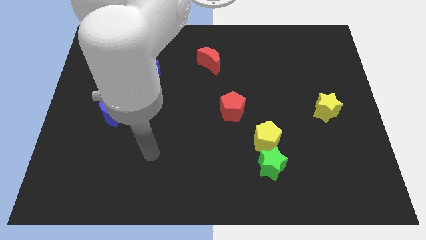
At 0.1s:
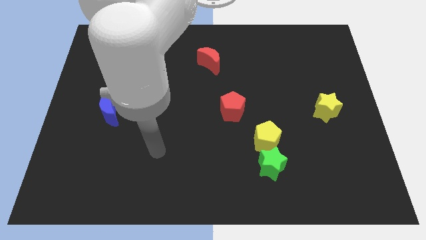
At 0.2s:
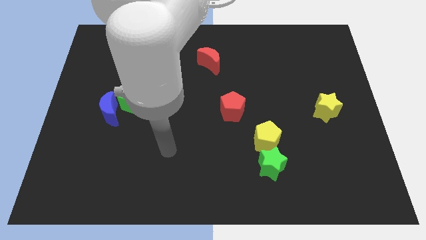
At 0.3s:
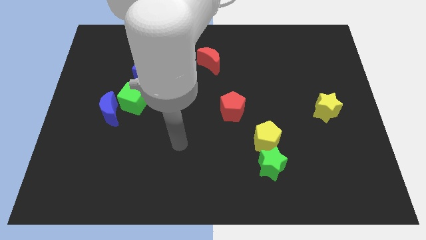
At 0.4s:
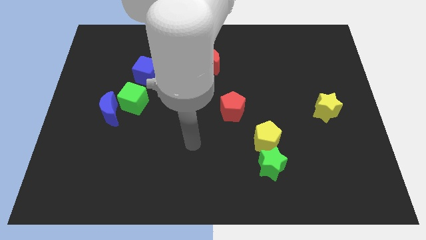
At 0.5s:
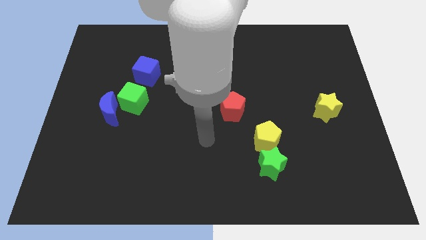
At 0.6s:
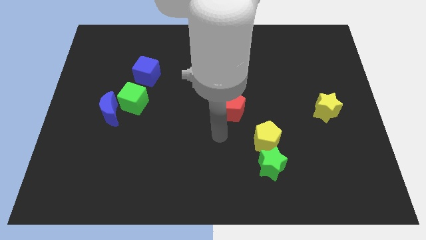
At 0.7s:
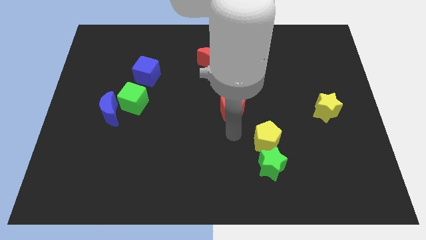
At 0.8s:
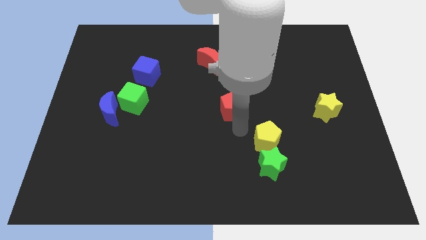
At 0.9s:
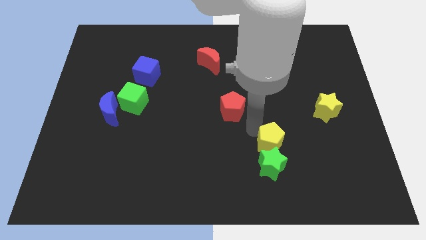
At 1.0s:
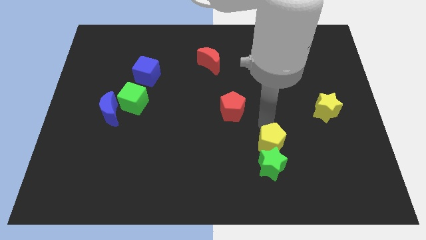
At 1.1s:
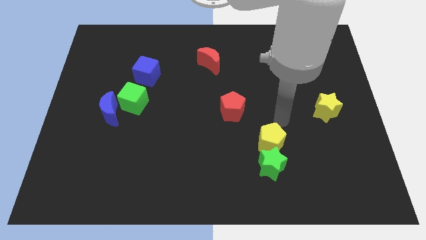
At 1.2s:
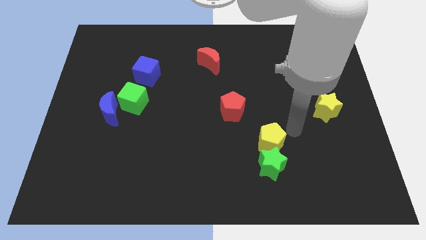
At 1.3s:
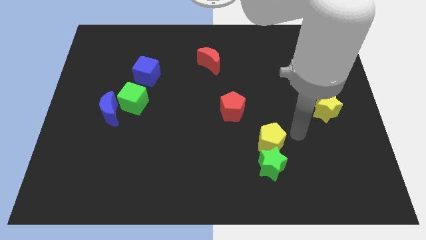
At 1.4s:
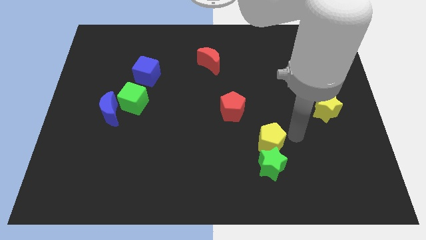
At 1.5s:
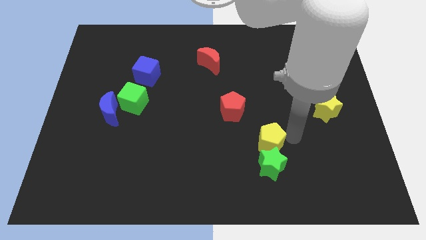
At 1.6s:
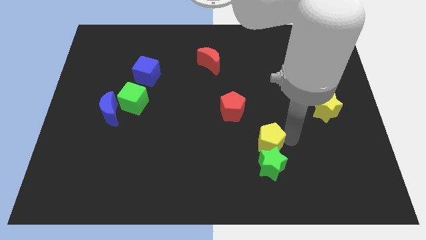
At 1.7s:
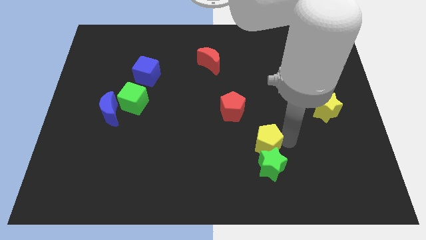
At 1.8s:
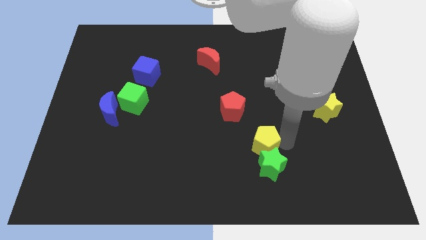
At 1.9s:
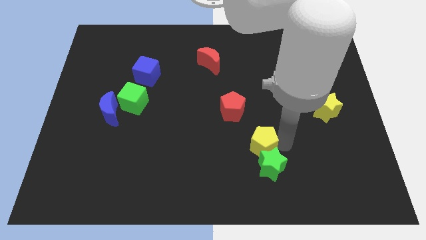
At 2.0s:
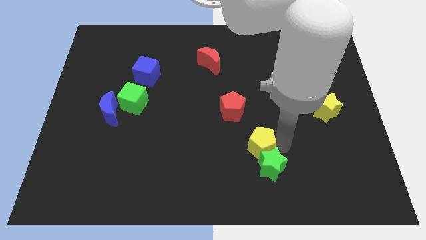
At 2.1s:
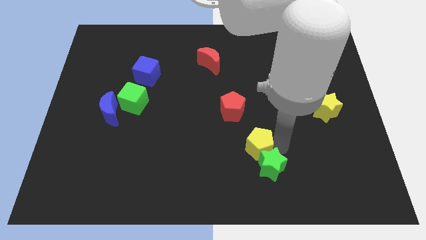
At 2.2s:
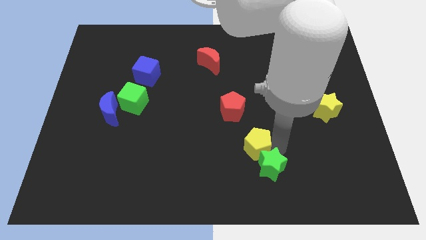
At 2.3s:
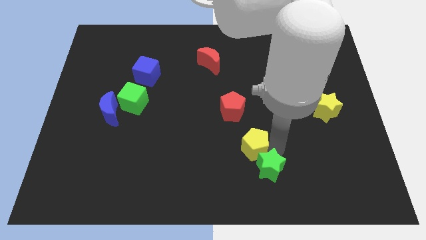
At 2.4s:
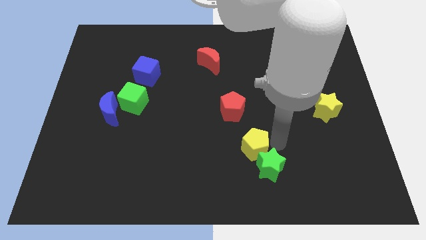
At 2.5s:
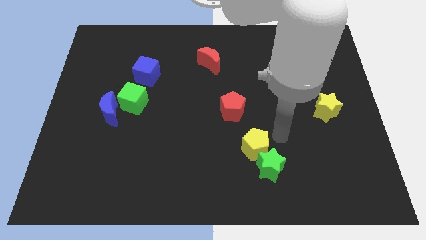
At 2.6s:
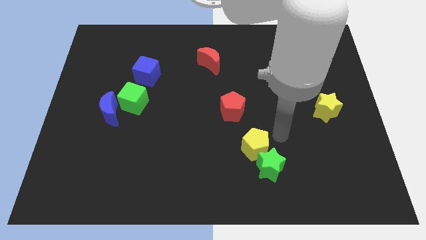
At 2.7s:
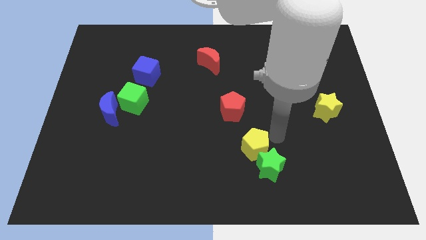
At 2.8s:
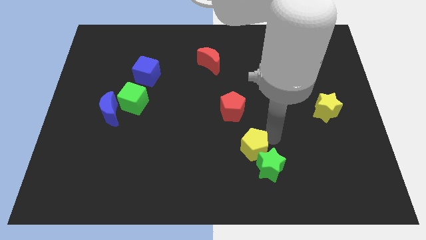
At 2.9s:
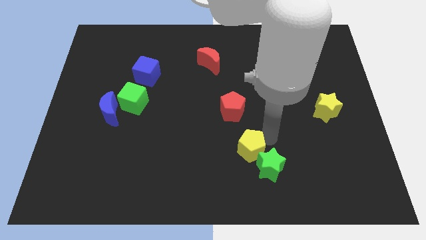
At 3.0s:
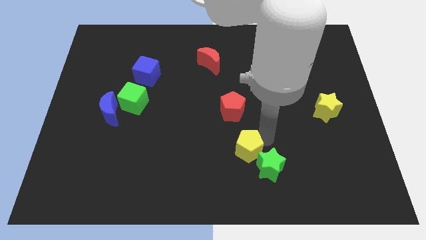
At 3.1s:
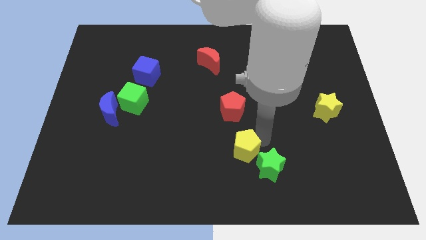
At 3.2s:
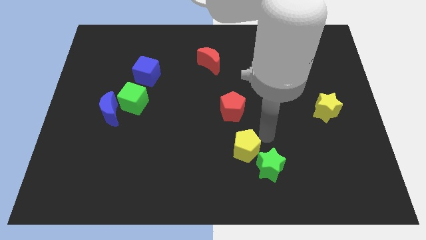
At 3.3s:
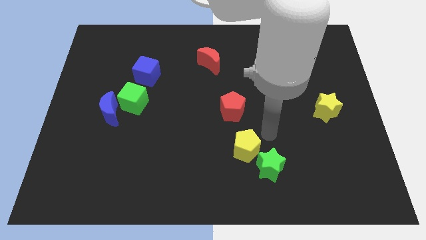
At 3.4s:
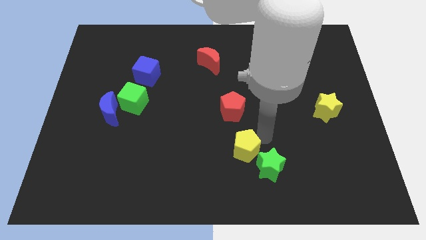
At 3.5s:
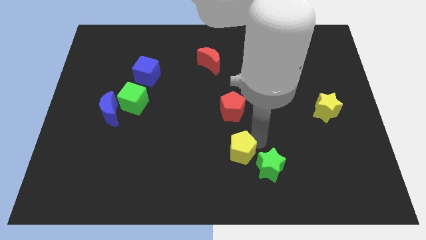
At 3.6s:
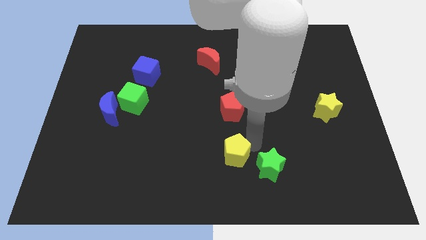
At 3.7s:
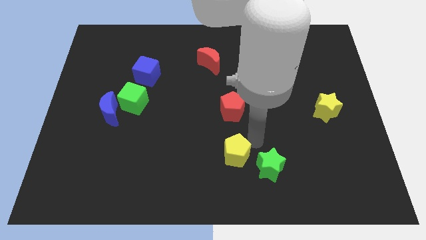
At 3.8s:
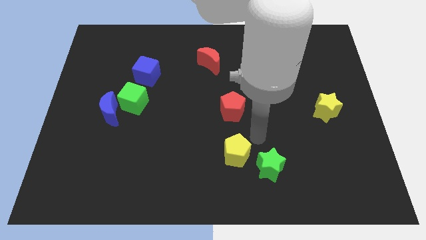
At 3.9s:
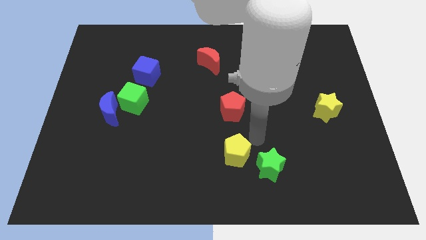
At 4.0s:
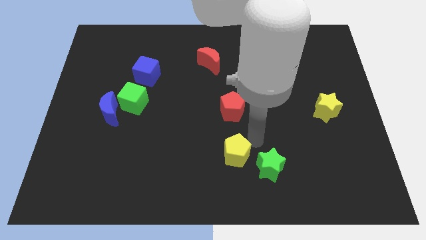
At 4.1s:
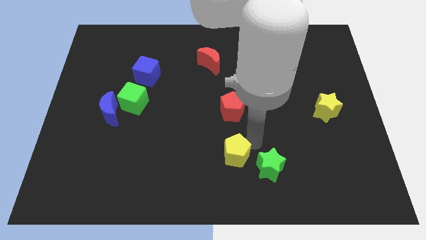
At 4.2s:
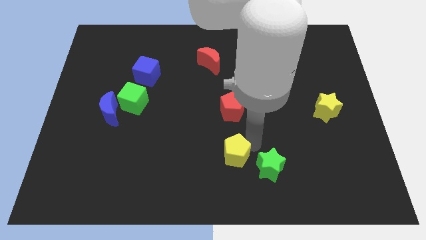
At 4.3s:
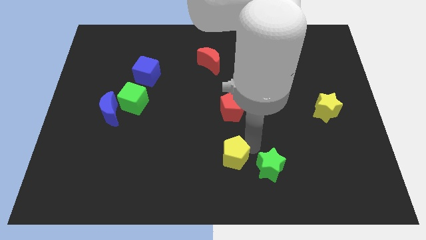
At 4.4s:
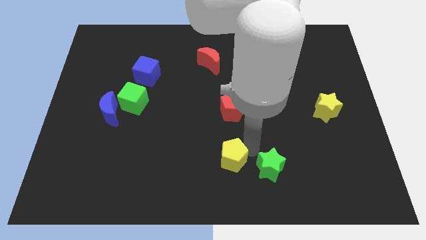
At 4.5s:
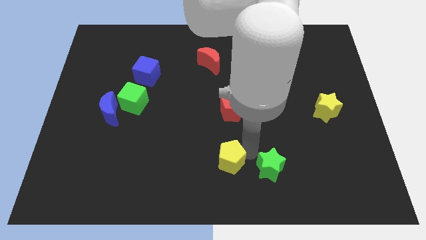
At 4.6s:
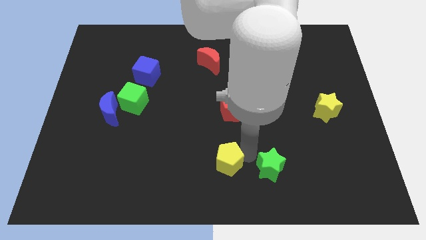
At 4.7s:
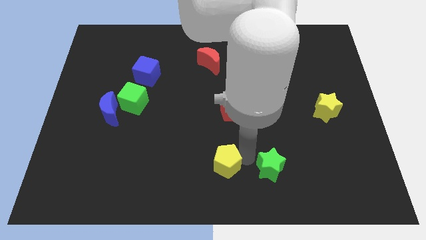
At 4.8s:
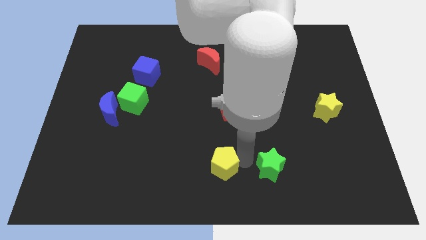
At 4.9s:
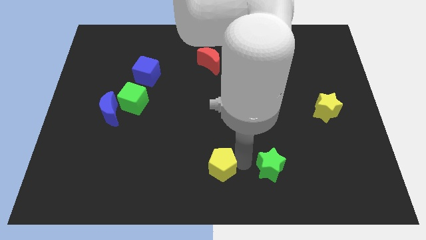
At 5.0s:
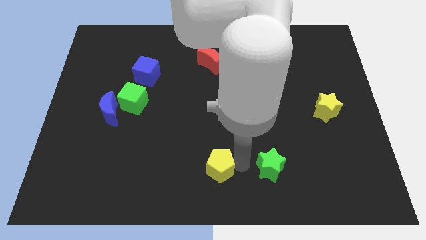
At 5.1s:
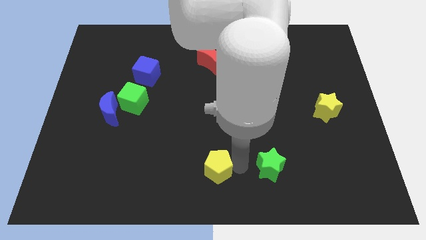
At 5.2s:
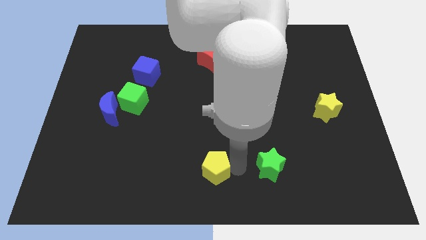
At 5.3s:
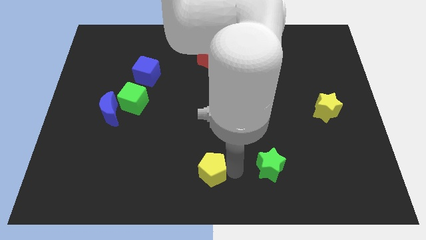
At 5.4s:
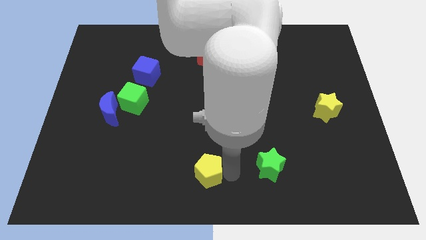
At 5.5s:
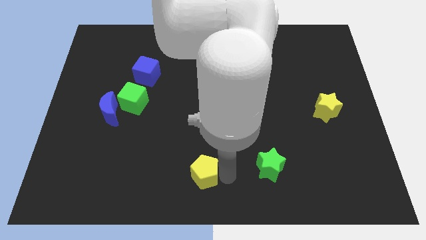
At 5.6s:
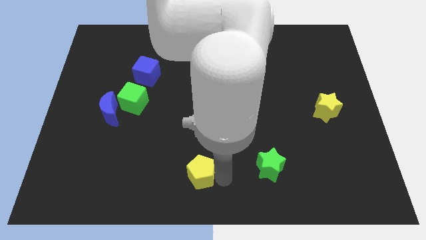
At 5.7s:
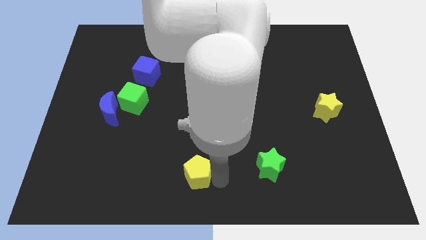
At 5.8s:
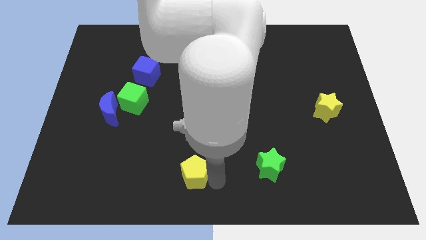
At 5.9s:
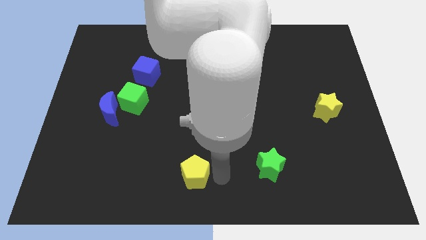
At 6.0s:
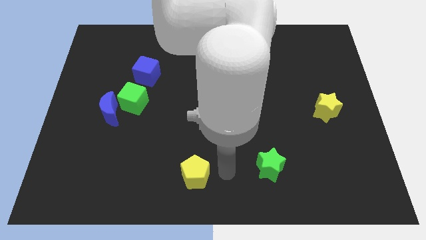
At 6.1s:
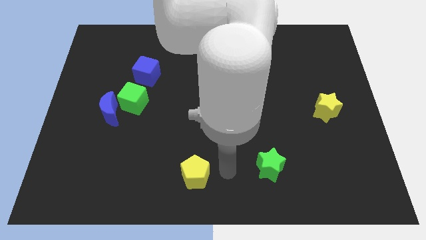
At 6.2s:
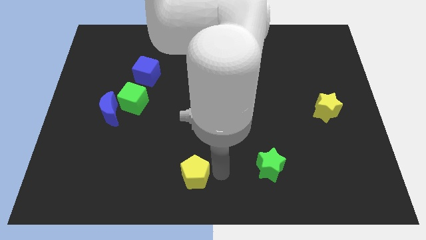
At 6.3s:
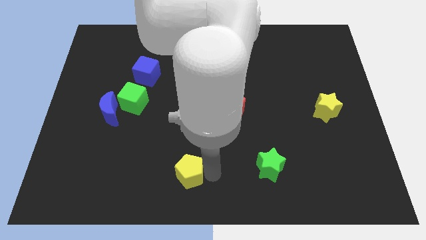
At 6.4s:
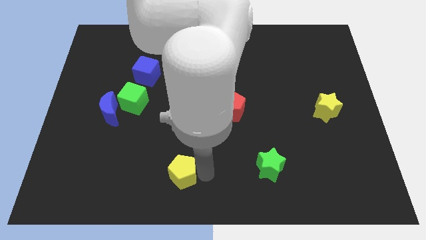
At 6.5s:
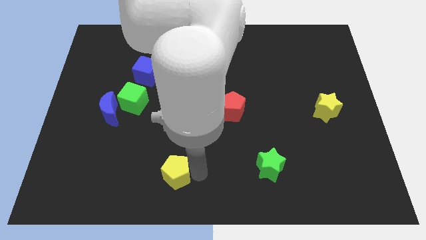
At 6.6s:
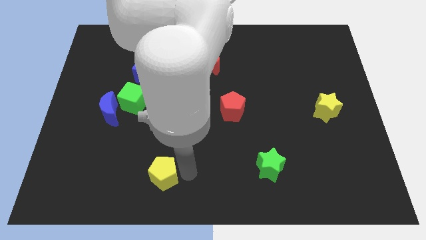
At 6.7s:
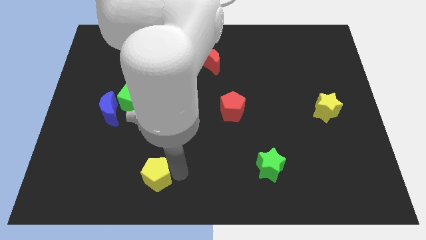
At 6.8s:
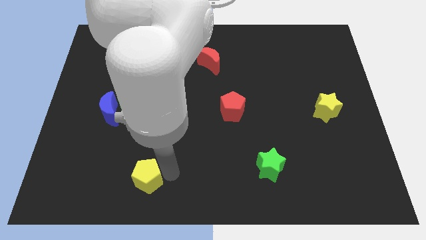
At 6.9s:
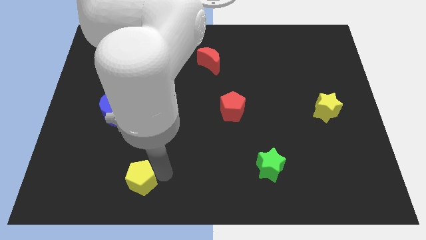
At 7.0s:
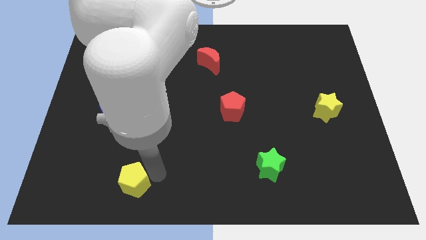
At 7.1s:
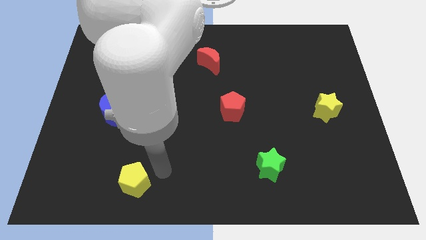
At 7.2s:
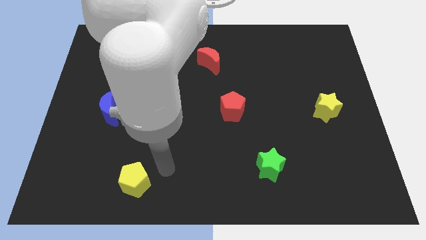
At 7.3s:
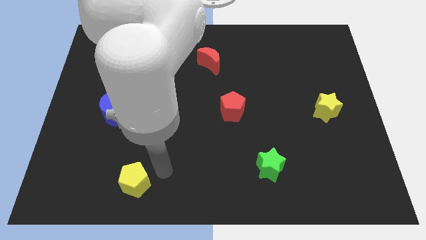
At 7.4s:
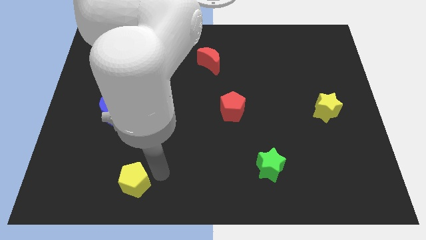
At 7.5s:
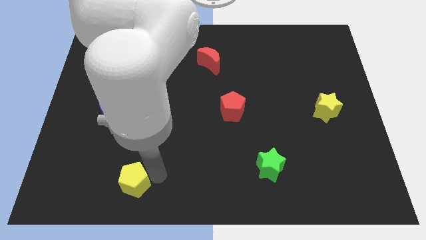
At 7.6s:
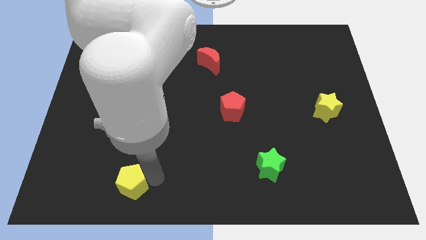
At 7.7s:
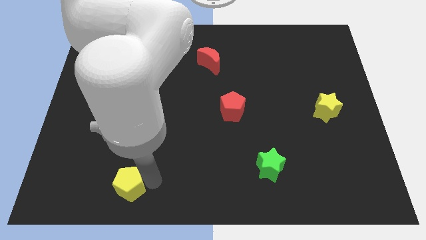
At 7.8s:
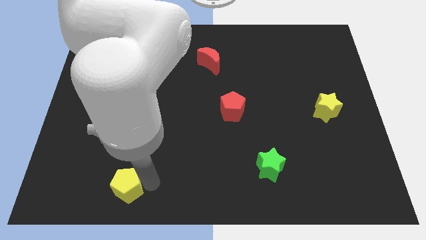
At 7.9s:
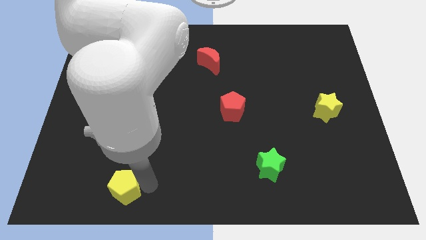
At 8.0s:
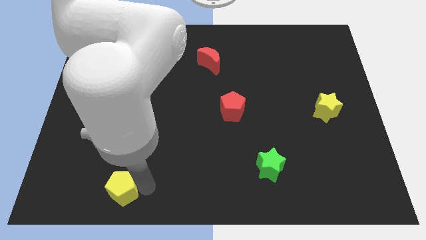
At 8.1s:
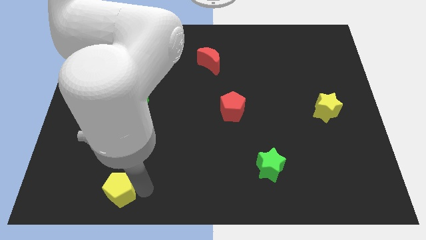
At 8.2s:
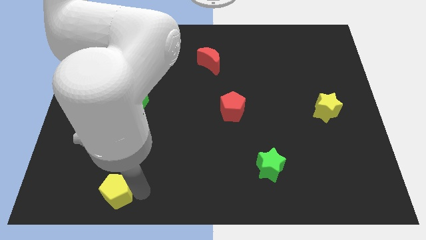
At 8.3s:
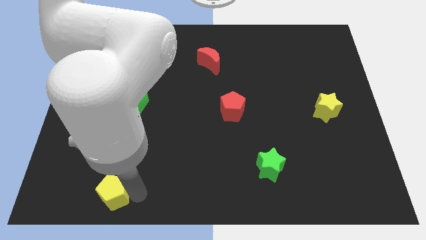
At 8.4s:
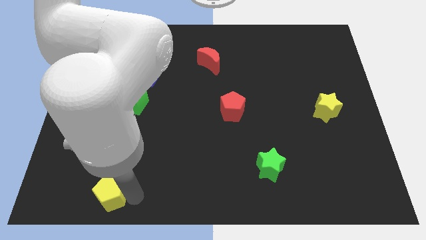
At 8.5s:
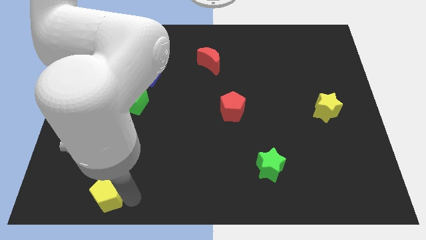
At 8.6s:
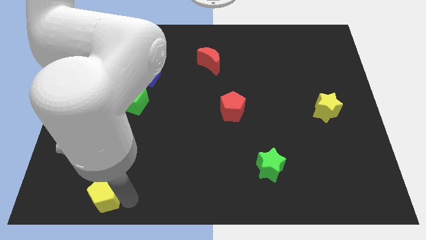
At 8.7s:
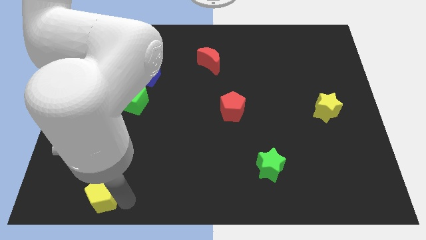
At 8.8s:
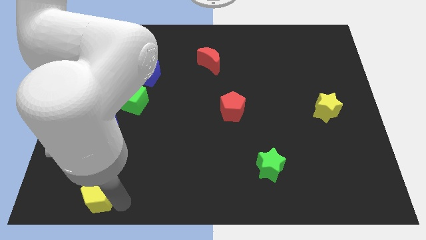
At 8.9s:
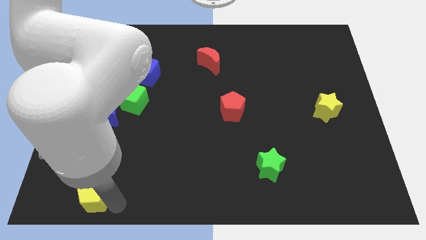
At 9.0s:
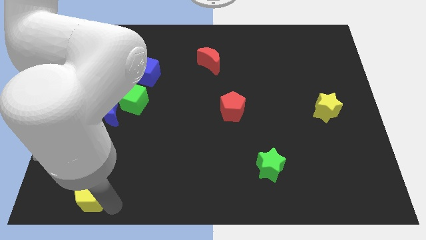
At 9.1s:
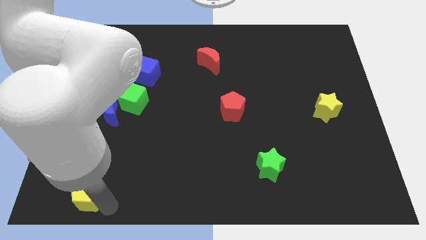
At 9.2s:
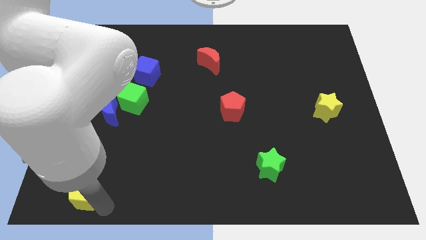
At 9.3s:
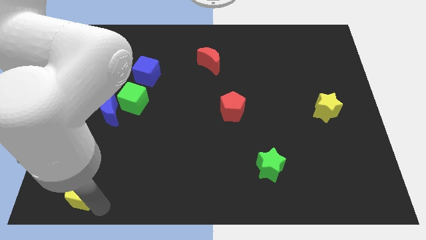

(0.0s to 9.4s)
slide the yellow pentagon to the bottom left of the board
